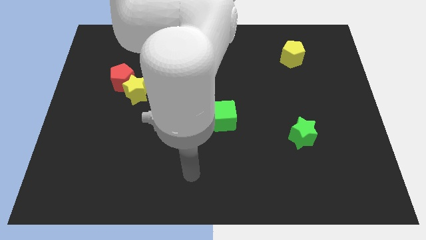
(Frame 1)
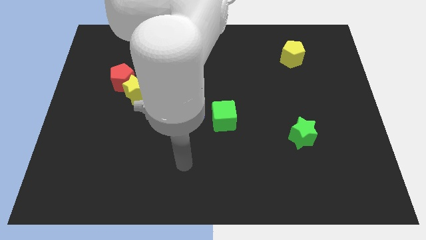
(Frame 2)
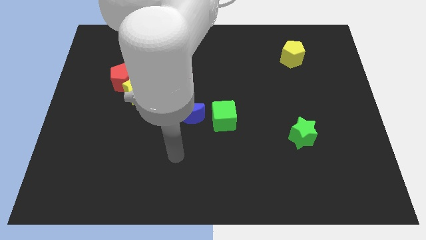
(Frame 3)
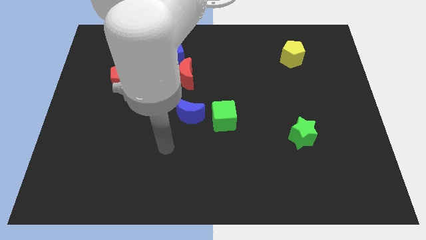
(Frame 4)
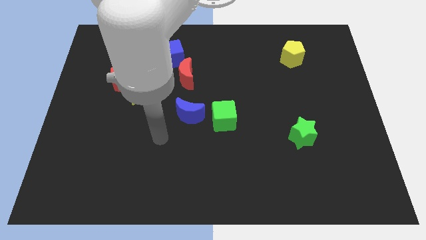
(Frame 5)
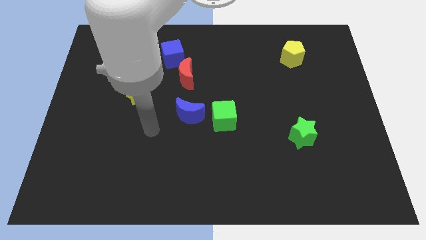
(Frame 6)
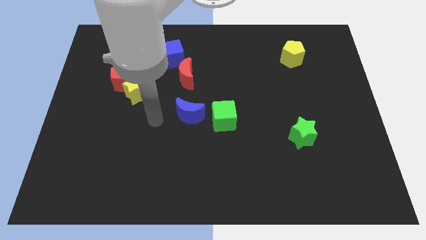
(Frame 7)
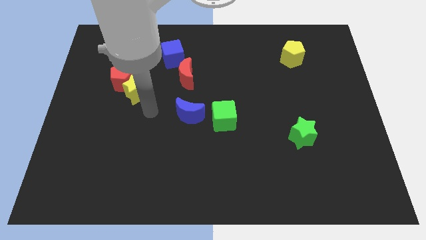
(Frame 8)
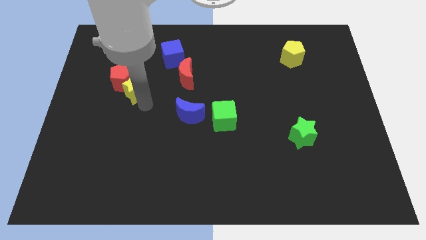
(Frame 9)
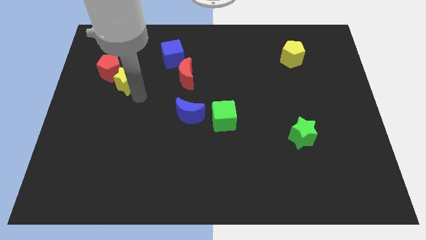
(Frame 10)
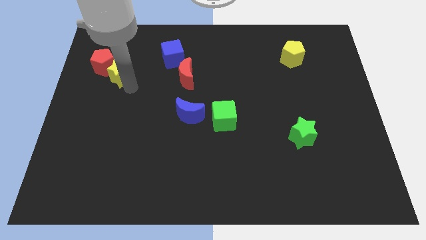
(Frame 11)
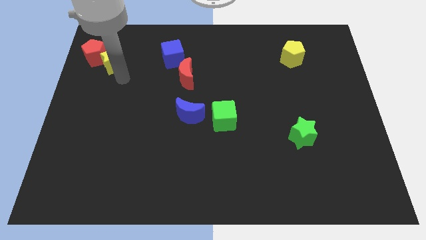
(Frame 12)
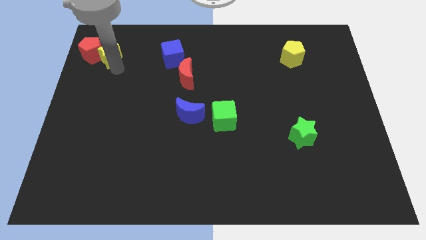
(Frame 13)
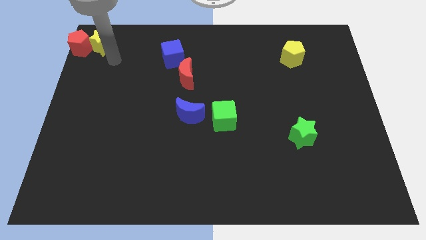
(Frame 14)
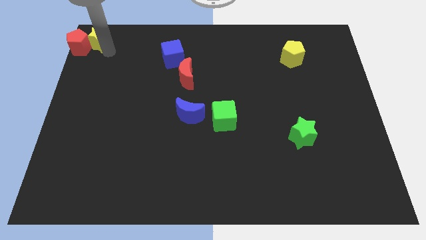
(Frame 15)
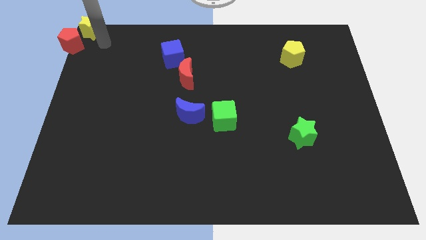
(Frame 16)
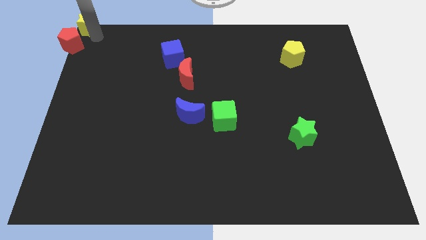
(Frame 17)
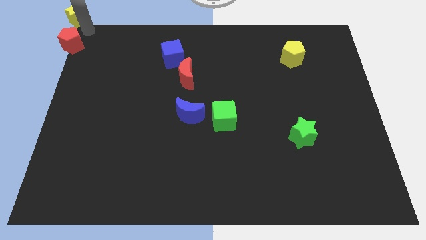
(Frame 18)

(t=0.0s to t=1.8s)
separate the red pentagon from the yellow star

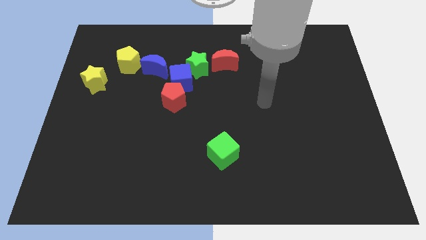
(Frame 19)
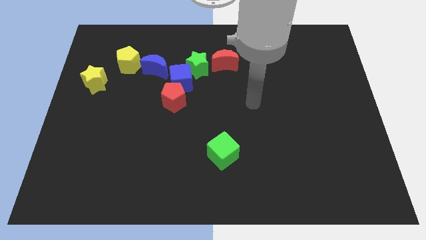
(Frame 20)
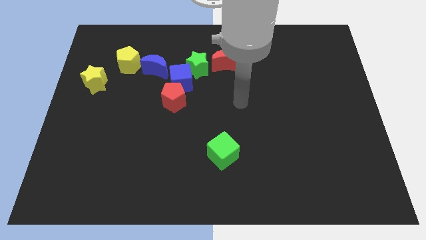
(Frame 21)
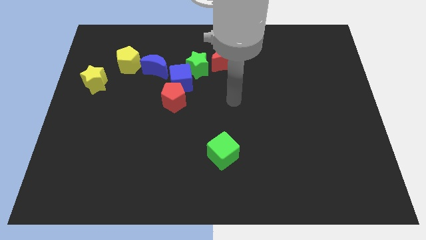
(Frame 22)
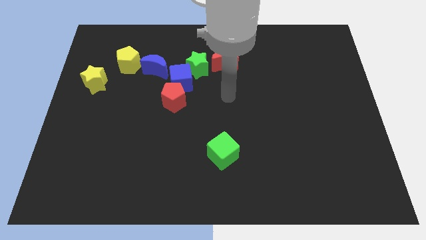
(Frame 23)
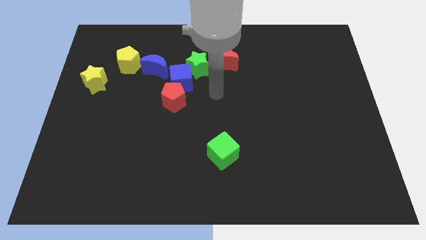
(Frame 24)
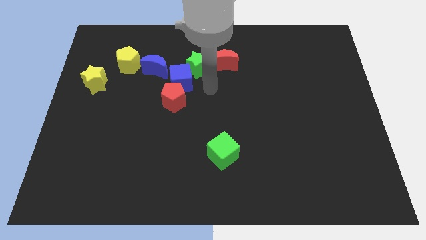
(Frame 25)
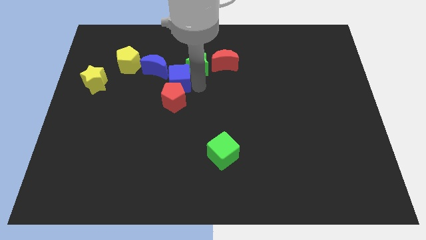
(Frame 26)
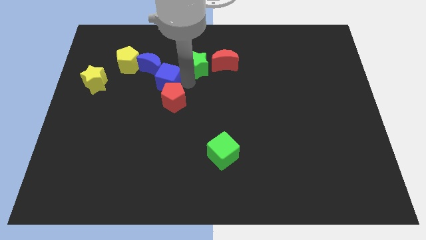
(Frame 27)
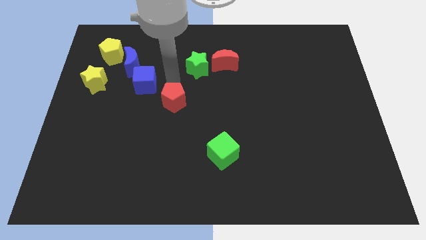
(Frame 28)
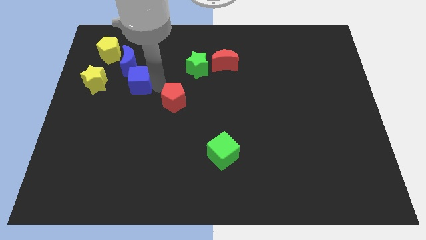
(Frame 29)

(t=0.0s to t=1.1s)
move the red pentagon away from the blue cube

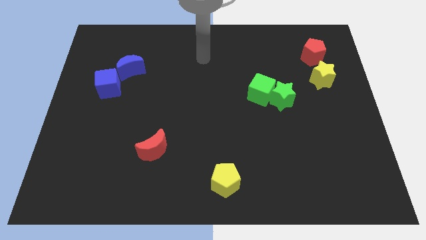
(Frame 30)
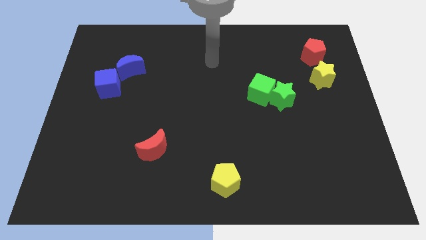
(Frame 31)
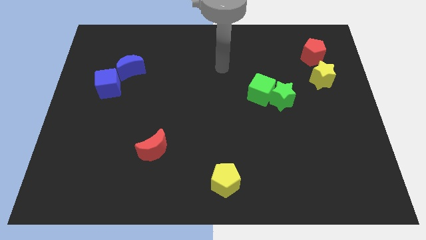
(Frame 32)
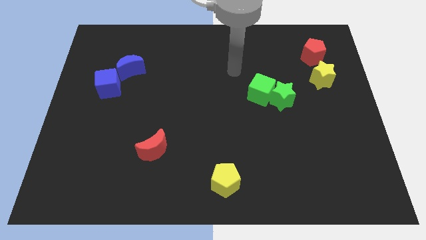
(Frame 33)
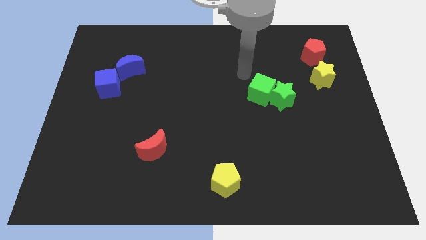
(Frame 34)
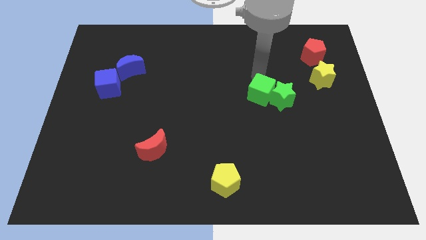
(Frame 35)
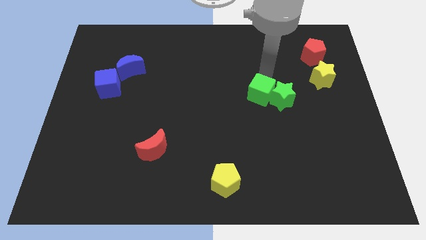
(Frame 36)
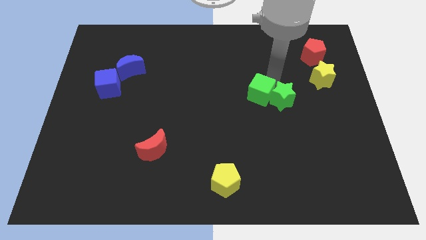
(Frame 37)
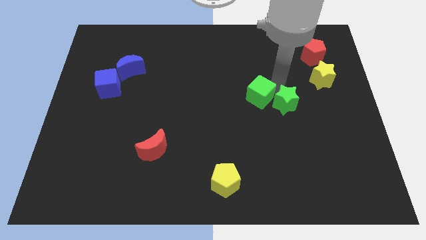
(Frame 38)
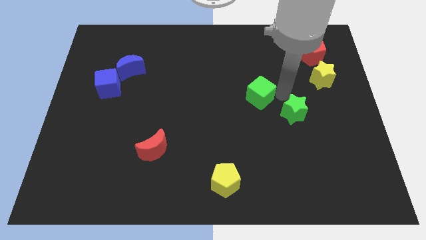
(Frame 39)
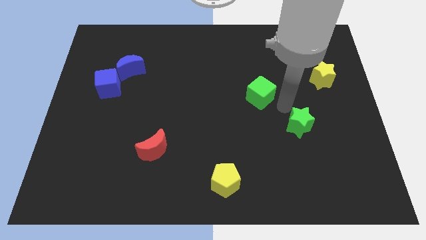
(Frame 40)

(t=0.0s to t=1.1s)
move the green cube away from the green star

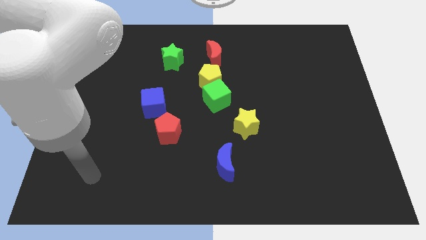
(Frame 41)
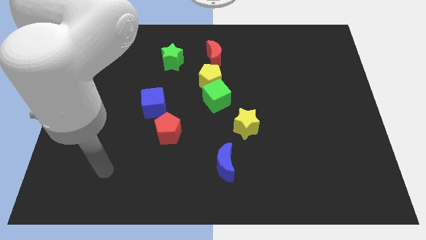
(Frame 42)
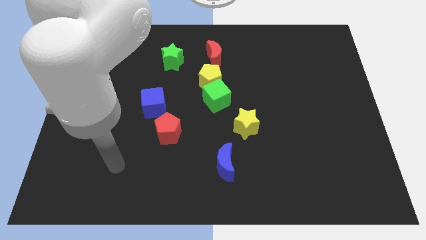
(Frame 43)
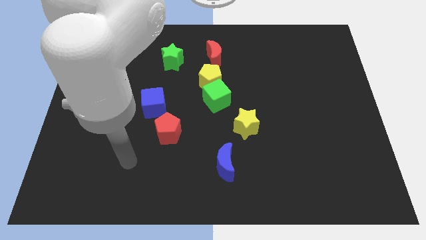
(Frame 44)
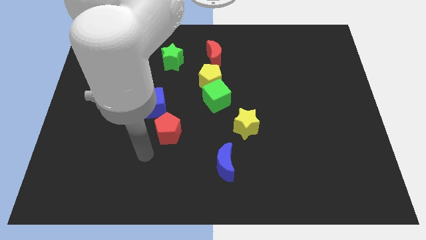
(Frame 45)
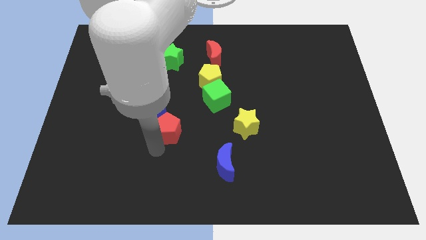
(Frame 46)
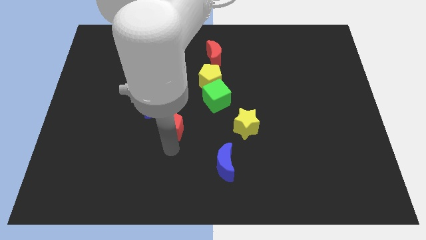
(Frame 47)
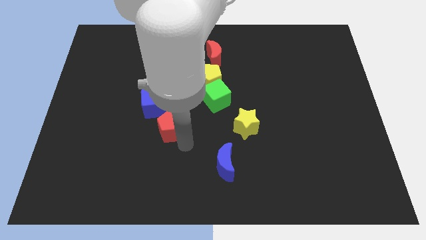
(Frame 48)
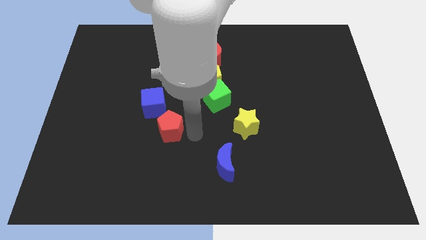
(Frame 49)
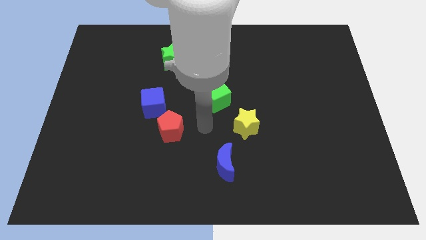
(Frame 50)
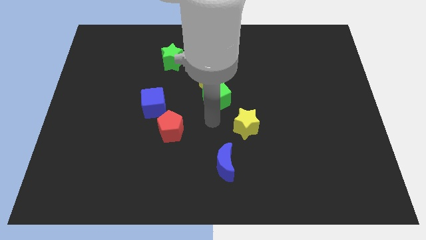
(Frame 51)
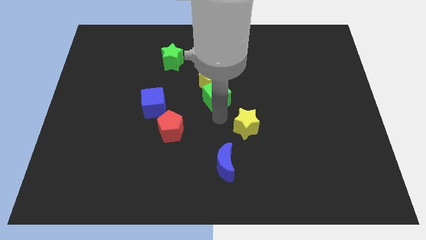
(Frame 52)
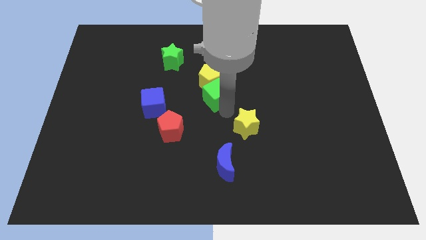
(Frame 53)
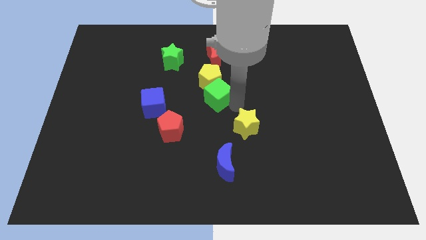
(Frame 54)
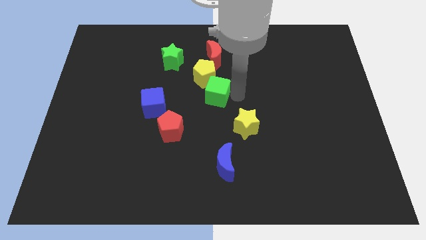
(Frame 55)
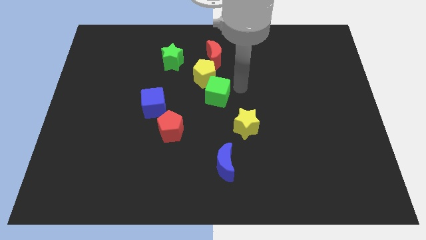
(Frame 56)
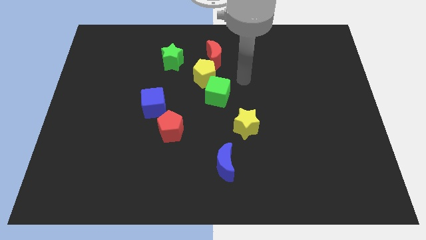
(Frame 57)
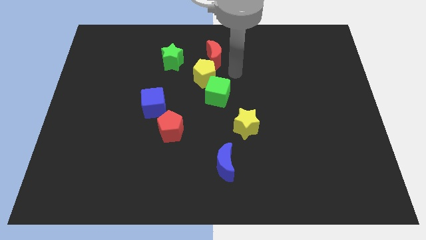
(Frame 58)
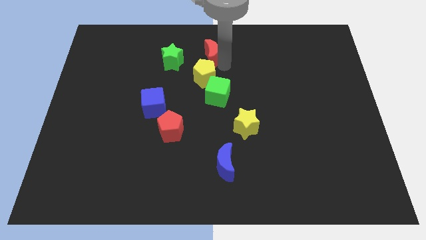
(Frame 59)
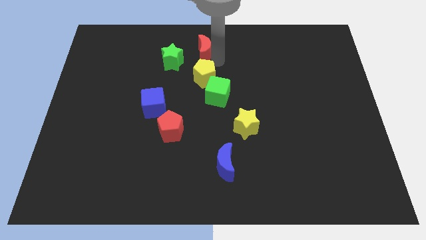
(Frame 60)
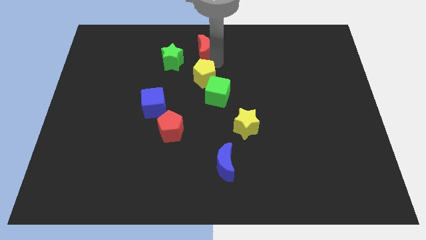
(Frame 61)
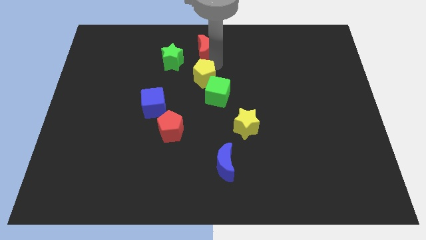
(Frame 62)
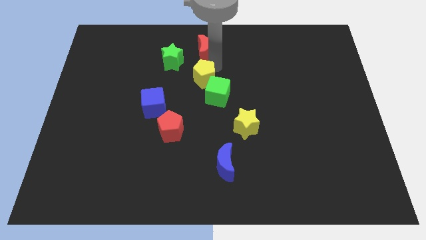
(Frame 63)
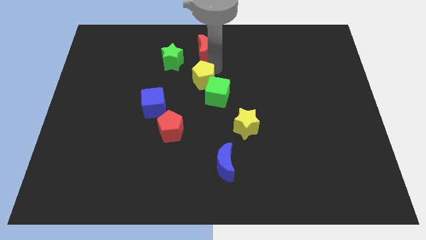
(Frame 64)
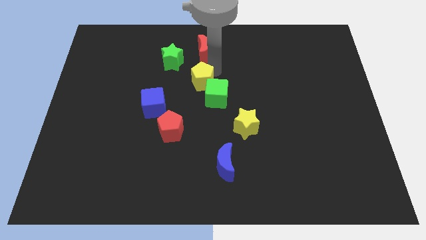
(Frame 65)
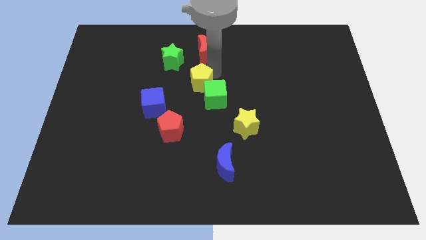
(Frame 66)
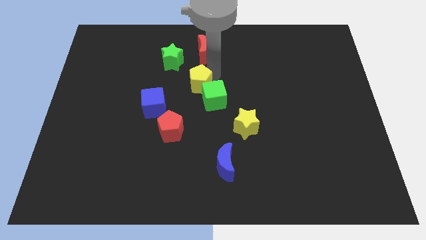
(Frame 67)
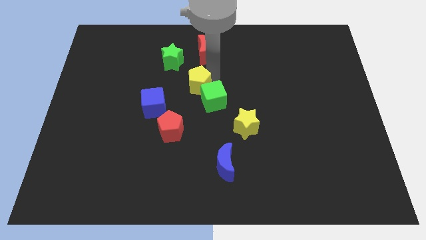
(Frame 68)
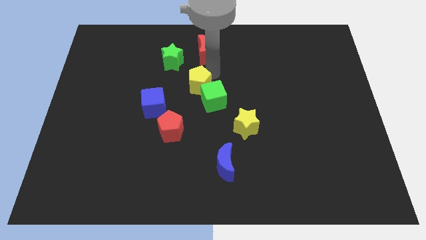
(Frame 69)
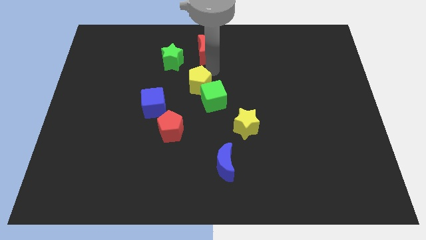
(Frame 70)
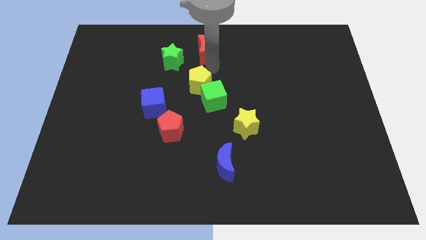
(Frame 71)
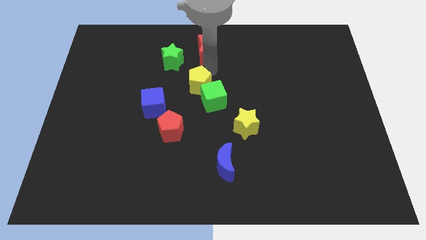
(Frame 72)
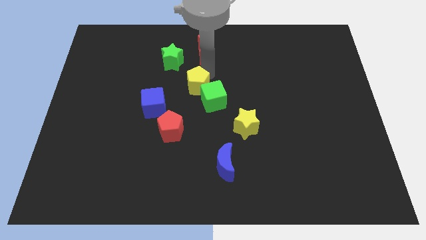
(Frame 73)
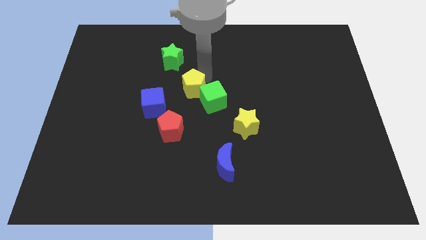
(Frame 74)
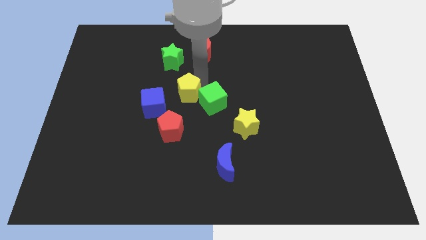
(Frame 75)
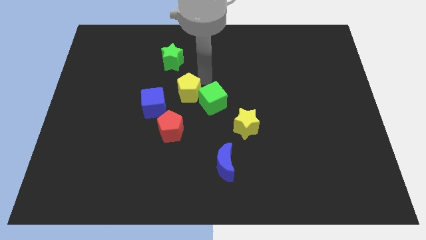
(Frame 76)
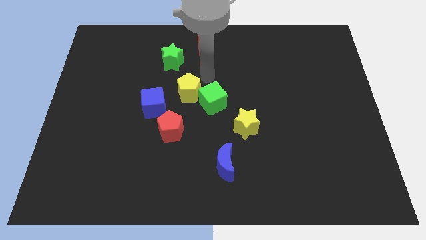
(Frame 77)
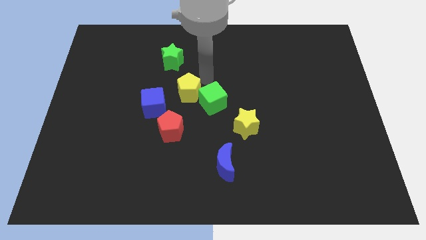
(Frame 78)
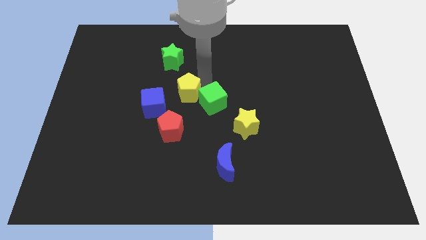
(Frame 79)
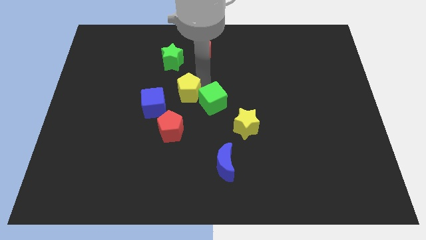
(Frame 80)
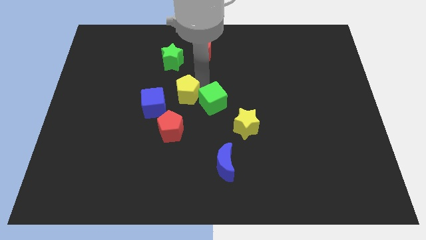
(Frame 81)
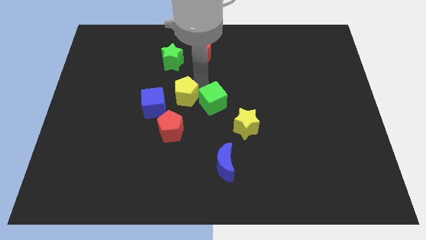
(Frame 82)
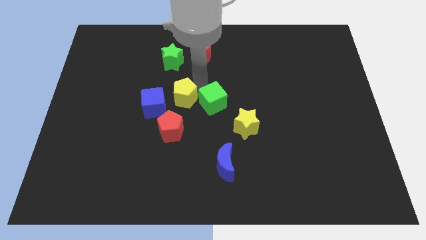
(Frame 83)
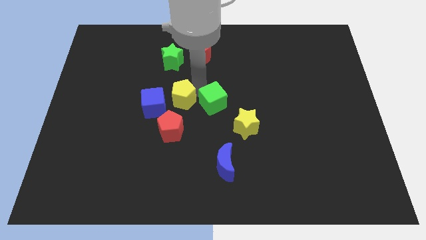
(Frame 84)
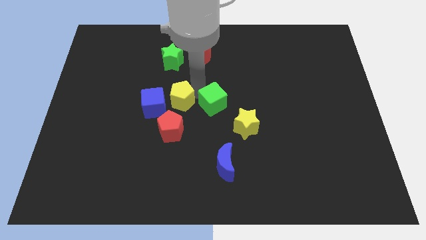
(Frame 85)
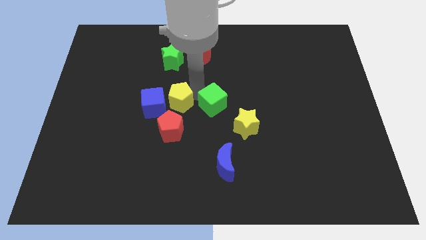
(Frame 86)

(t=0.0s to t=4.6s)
pull the yellow pentagon apart from the green cube and red moon

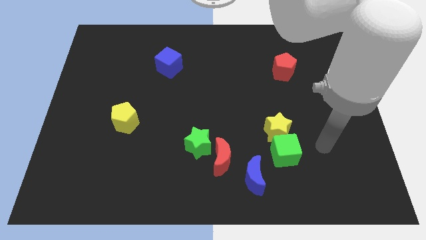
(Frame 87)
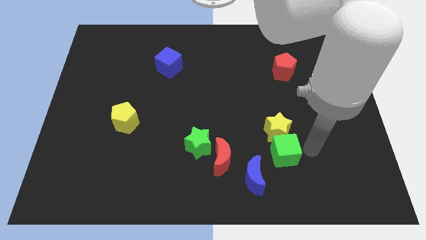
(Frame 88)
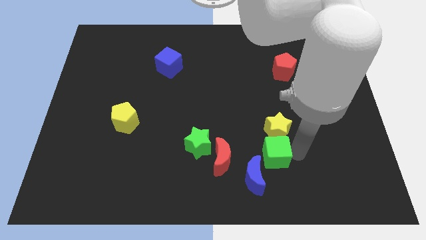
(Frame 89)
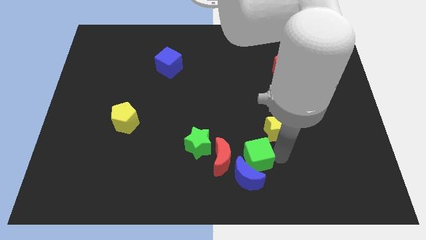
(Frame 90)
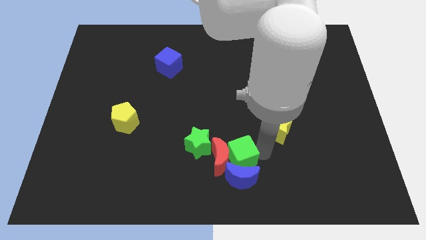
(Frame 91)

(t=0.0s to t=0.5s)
pull the yellow star apart from the green cube
